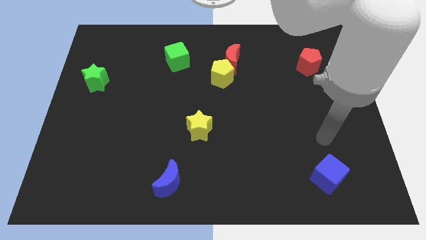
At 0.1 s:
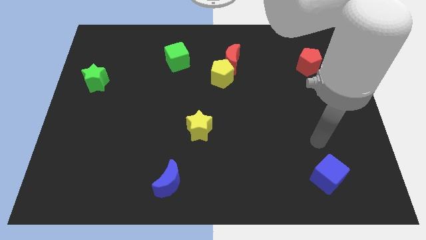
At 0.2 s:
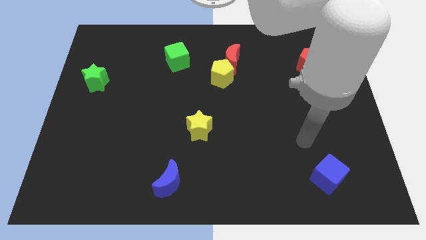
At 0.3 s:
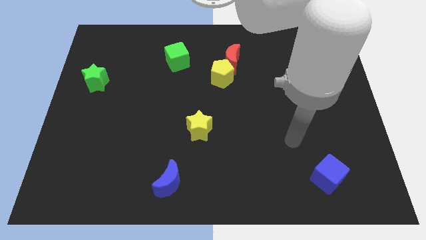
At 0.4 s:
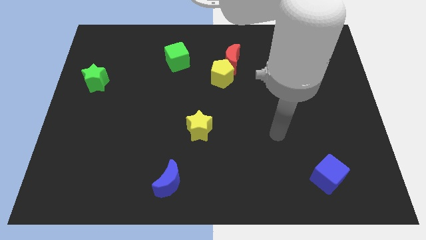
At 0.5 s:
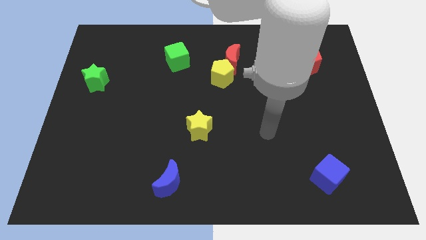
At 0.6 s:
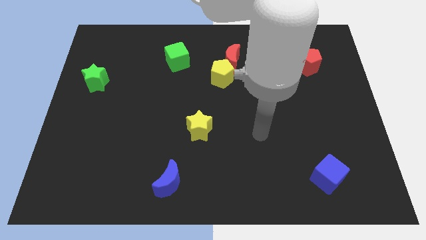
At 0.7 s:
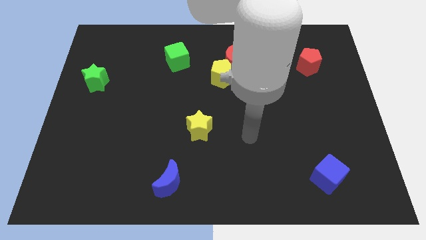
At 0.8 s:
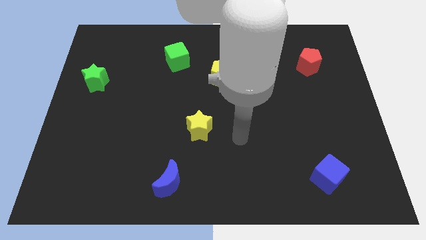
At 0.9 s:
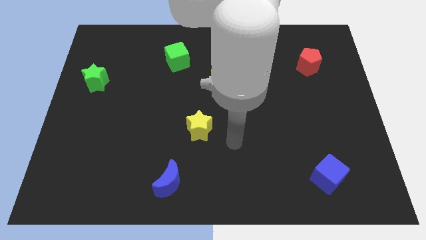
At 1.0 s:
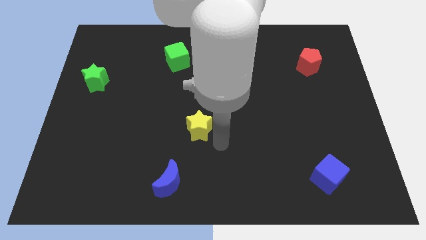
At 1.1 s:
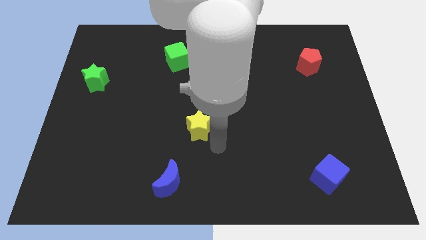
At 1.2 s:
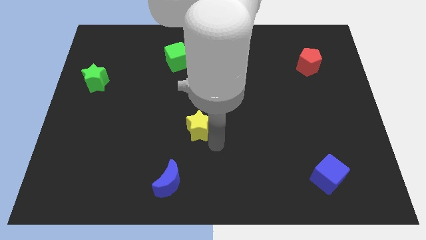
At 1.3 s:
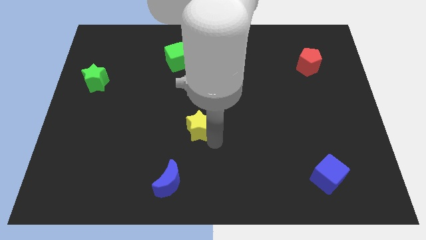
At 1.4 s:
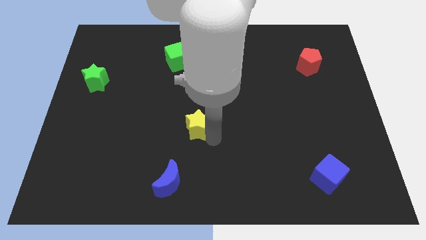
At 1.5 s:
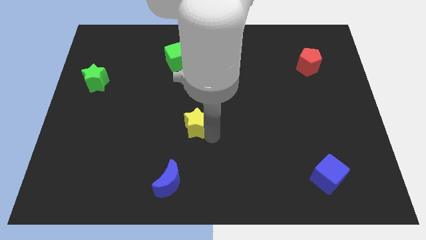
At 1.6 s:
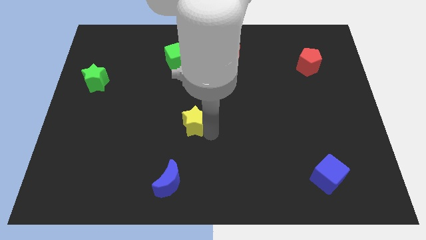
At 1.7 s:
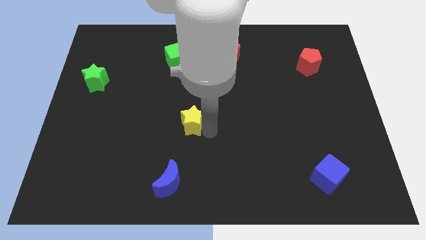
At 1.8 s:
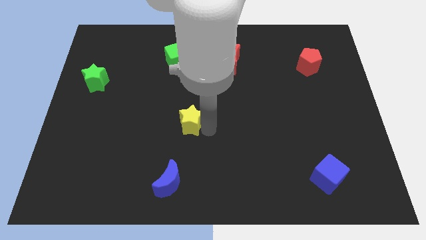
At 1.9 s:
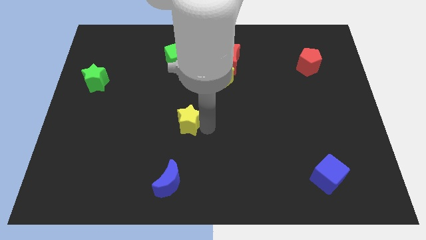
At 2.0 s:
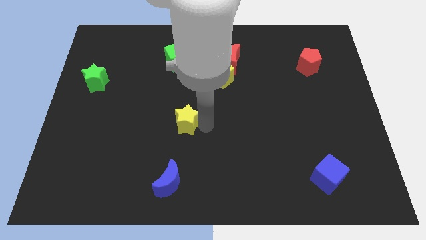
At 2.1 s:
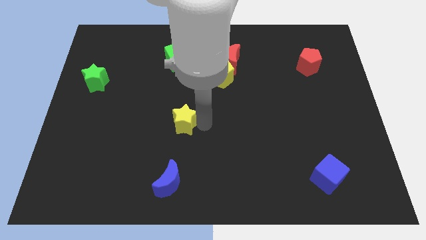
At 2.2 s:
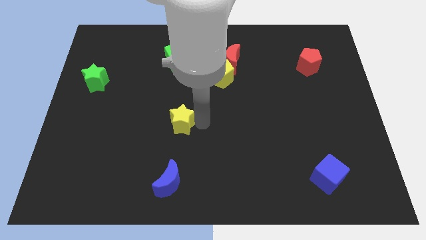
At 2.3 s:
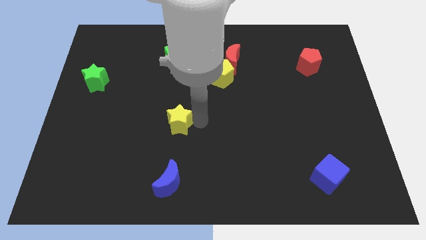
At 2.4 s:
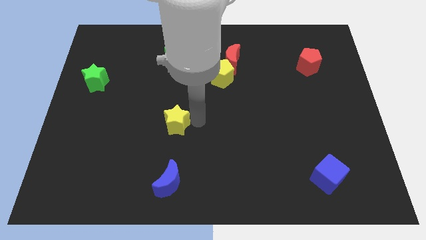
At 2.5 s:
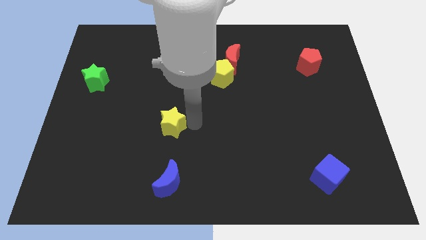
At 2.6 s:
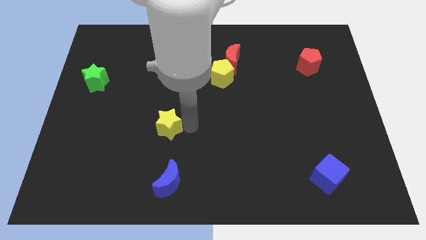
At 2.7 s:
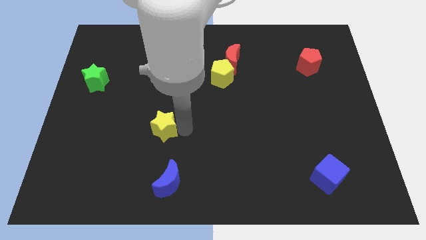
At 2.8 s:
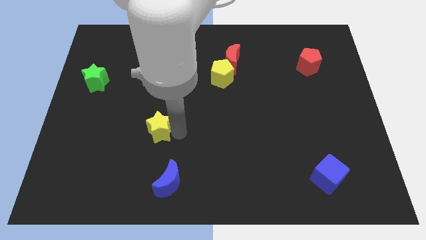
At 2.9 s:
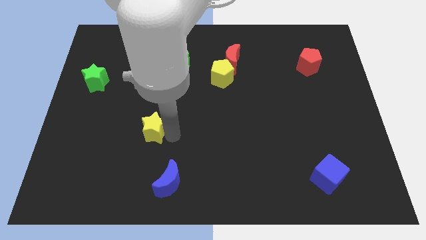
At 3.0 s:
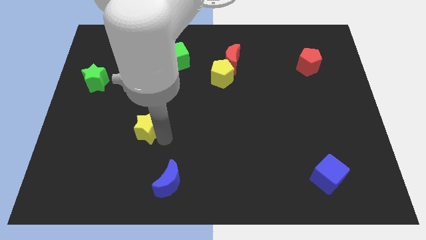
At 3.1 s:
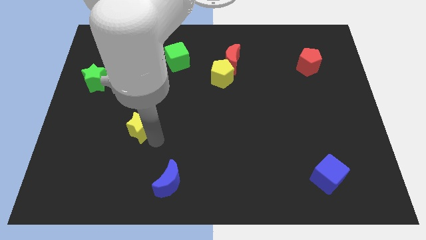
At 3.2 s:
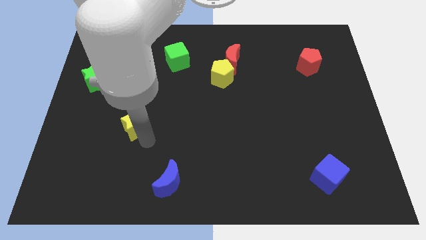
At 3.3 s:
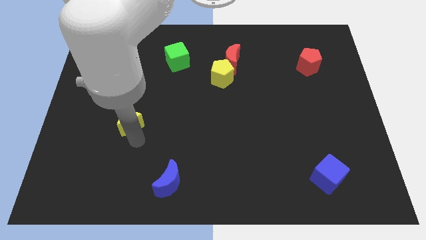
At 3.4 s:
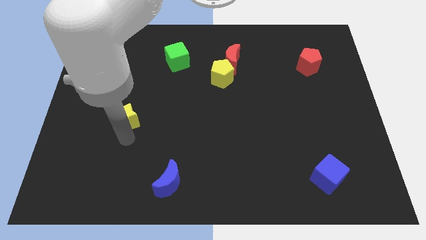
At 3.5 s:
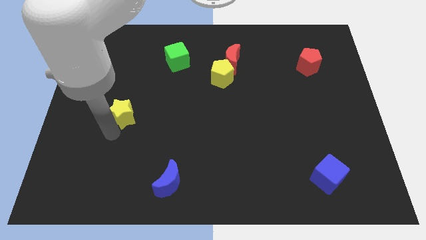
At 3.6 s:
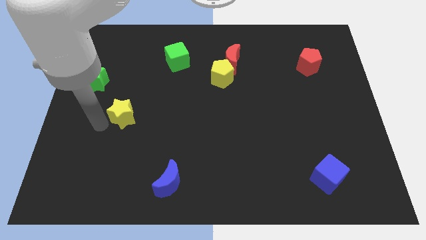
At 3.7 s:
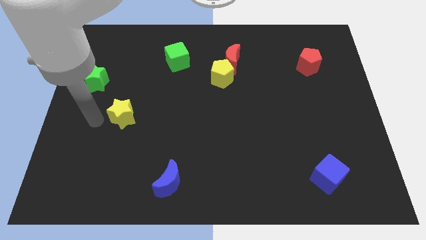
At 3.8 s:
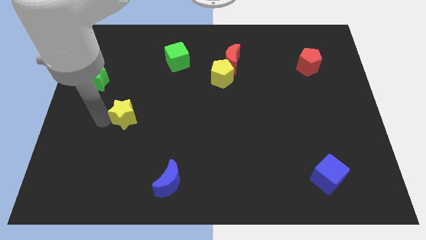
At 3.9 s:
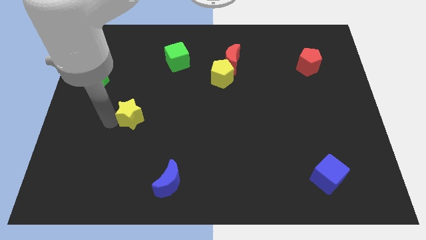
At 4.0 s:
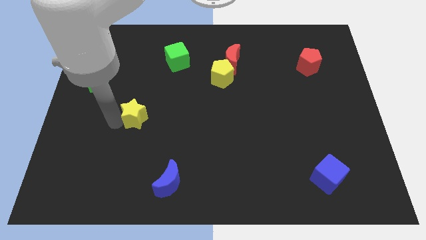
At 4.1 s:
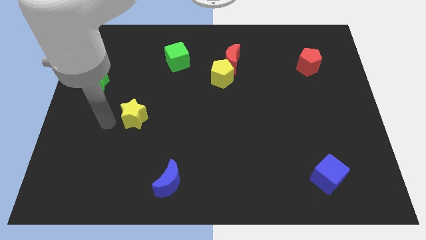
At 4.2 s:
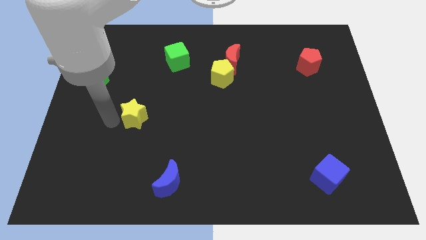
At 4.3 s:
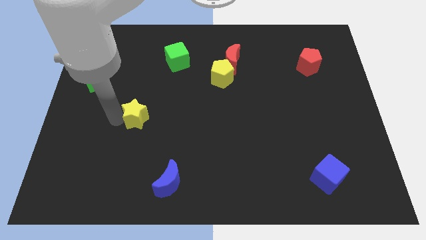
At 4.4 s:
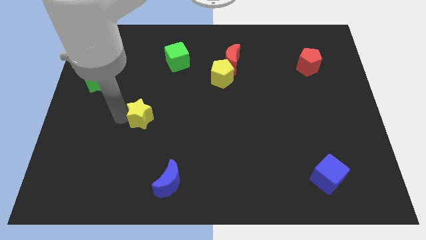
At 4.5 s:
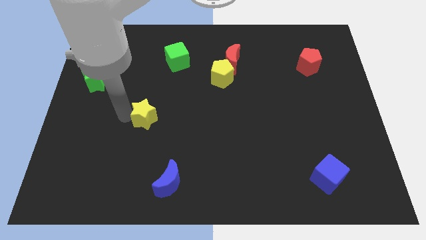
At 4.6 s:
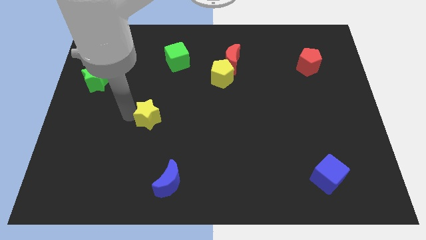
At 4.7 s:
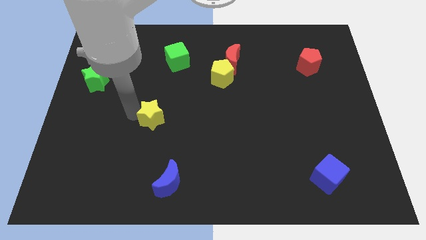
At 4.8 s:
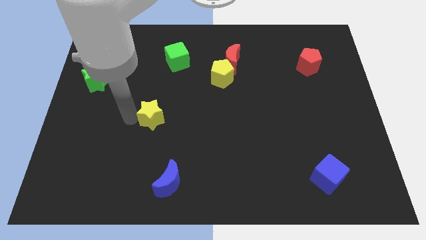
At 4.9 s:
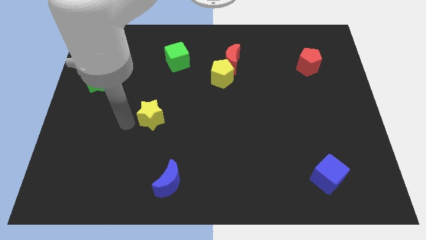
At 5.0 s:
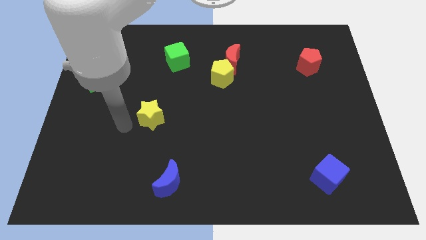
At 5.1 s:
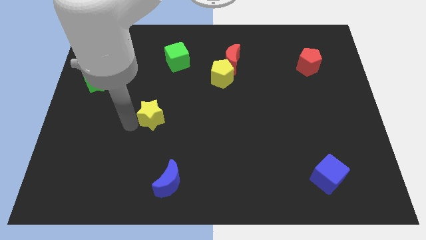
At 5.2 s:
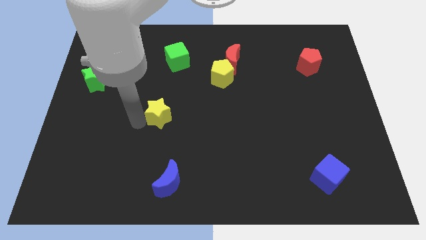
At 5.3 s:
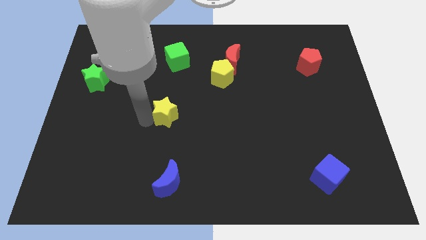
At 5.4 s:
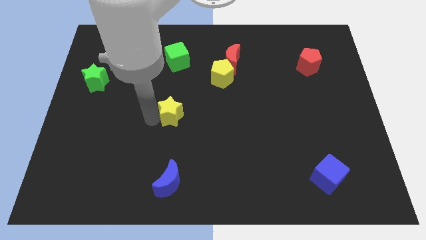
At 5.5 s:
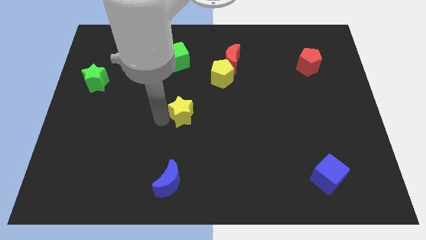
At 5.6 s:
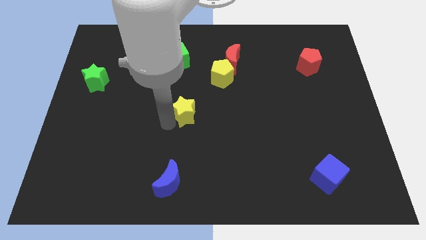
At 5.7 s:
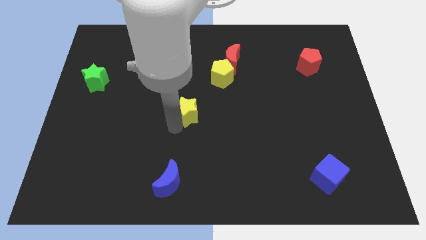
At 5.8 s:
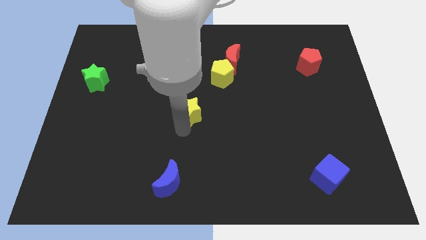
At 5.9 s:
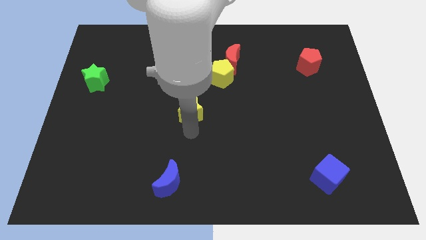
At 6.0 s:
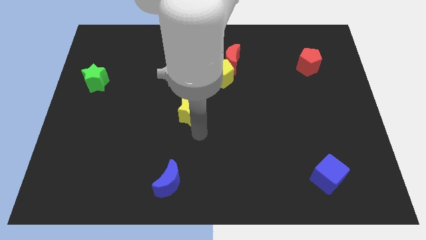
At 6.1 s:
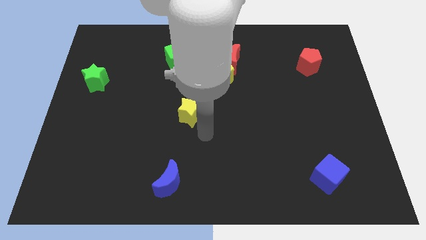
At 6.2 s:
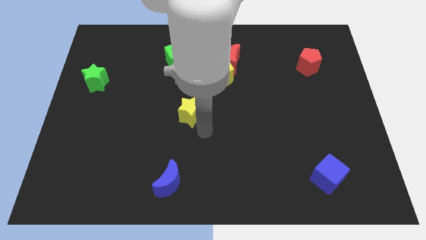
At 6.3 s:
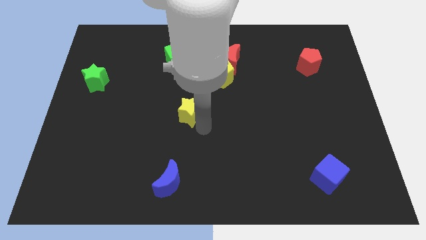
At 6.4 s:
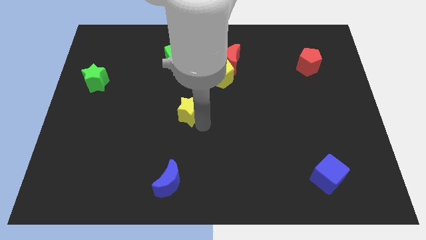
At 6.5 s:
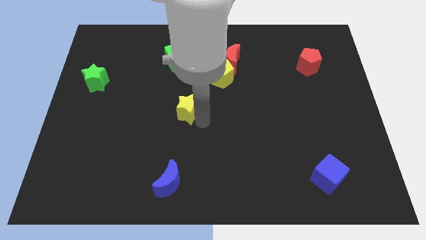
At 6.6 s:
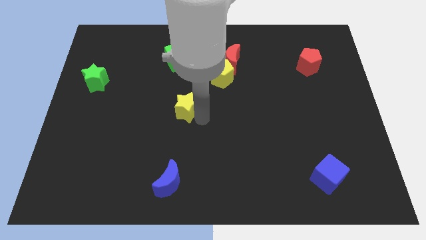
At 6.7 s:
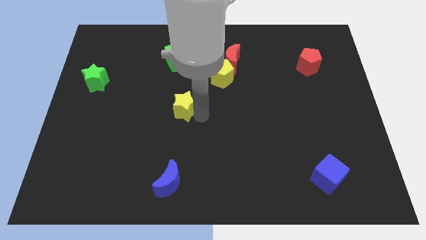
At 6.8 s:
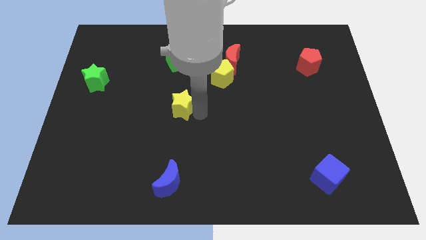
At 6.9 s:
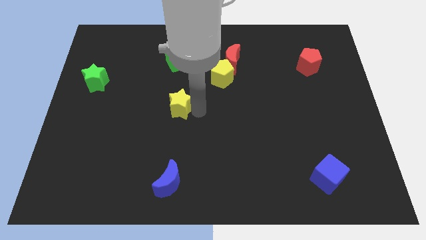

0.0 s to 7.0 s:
slide the yellow star to the bottom side of the green cube

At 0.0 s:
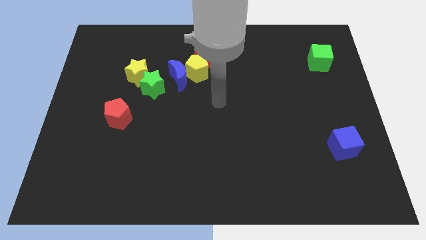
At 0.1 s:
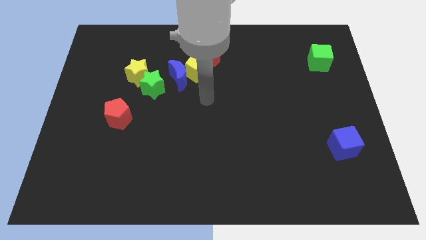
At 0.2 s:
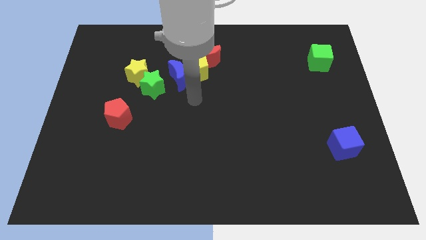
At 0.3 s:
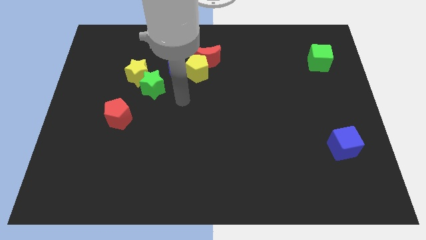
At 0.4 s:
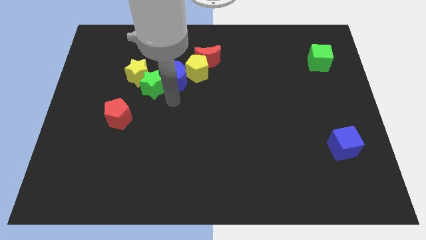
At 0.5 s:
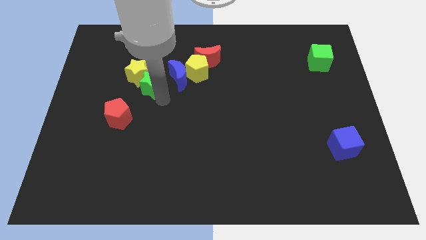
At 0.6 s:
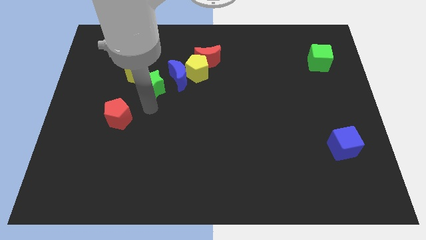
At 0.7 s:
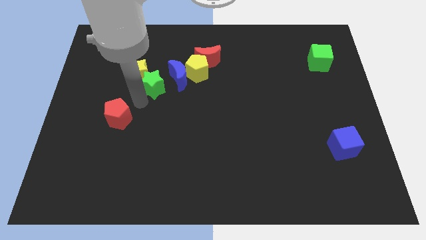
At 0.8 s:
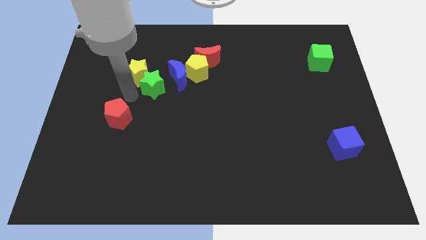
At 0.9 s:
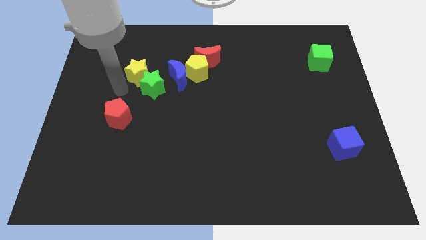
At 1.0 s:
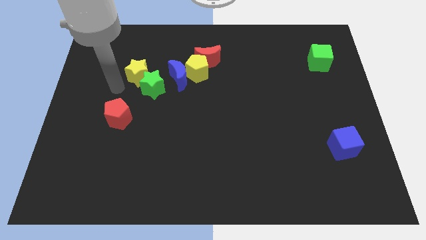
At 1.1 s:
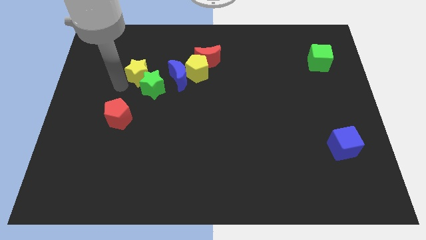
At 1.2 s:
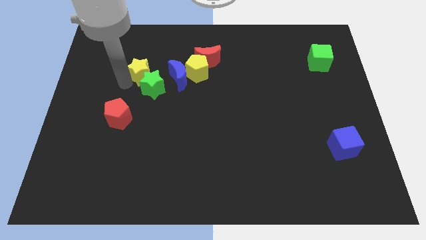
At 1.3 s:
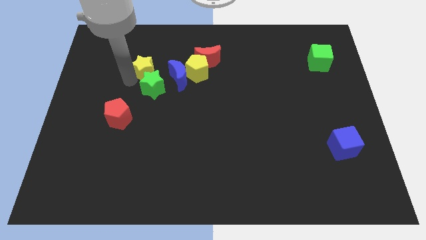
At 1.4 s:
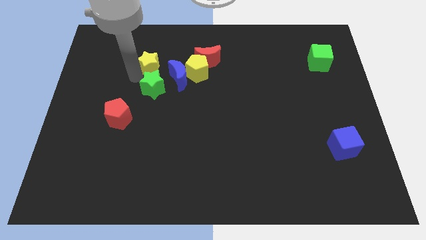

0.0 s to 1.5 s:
put the yellow star to the left of the red moon
